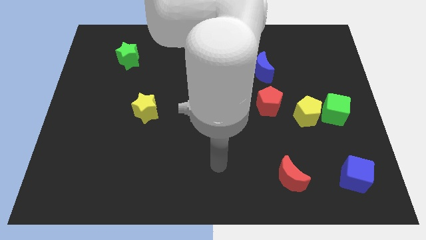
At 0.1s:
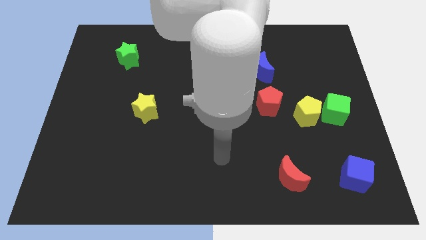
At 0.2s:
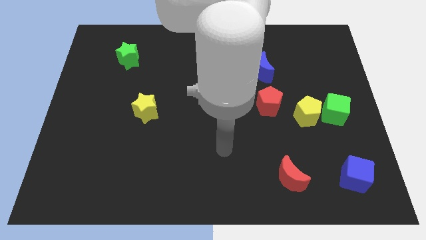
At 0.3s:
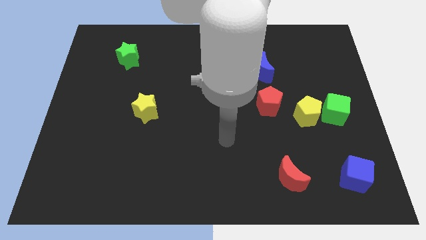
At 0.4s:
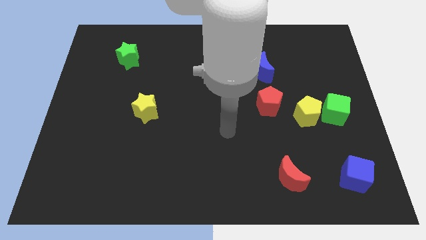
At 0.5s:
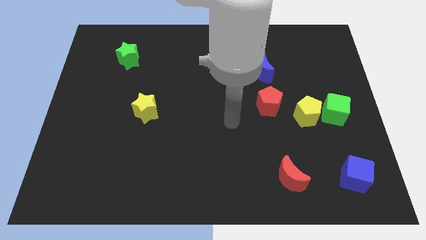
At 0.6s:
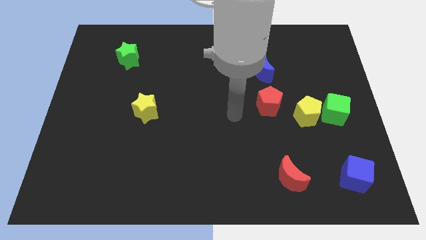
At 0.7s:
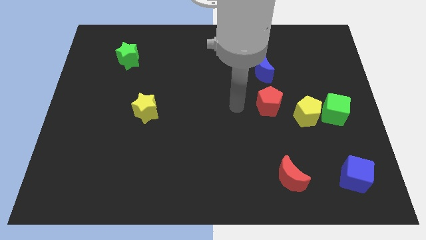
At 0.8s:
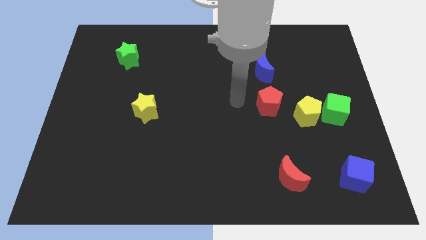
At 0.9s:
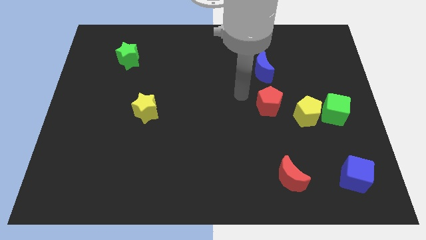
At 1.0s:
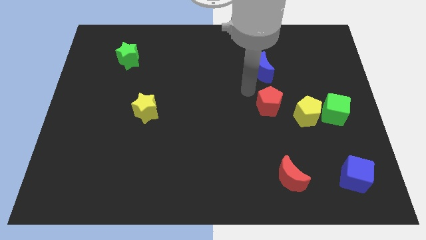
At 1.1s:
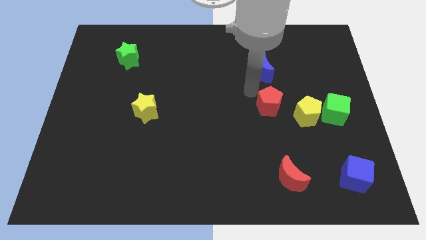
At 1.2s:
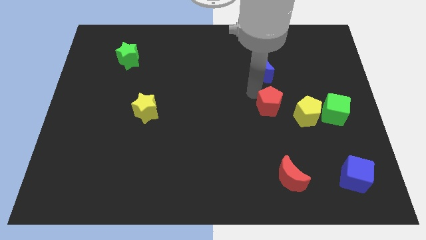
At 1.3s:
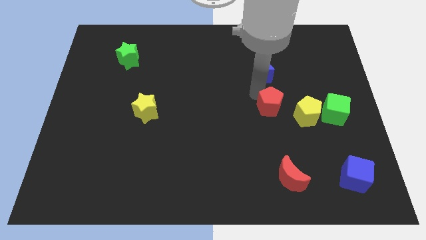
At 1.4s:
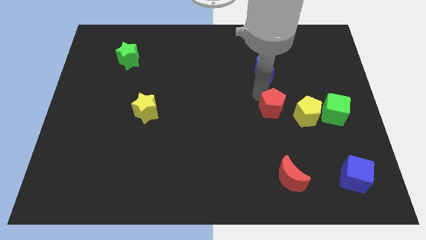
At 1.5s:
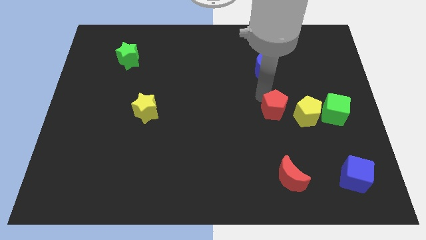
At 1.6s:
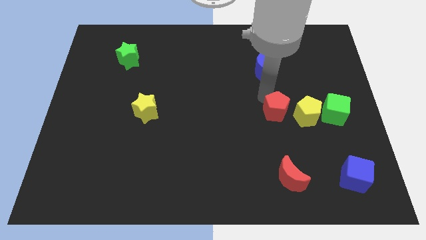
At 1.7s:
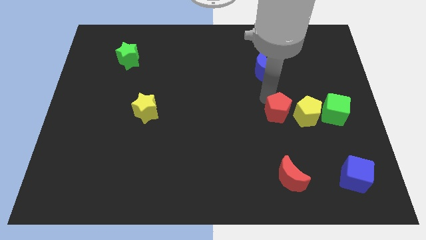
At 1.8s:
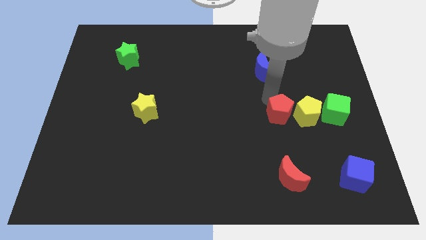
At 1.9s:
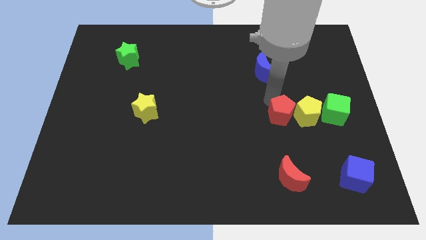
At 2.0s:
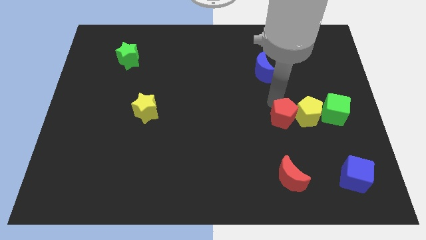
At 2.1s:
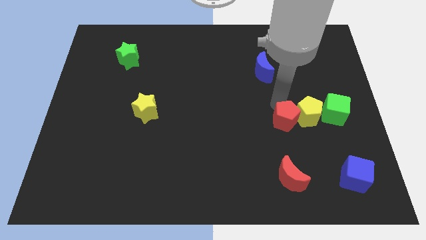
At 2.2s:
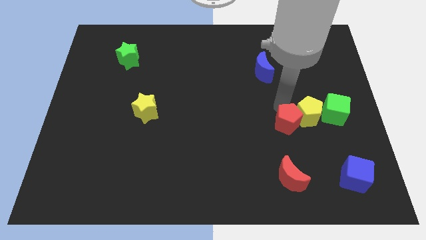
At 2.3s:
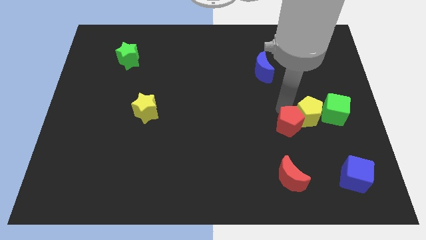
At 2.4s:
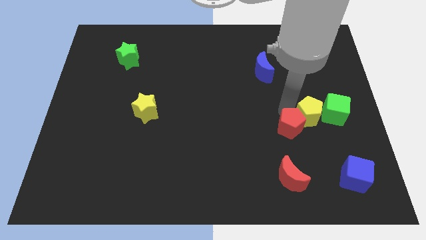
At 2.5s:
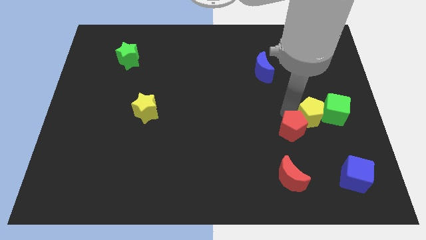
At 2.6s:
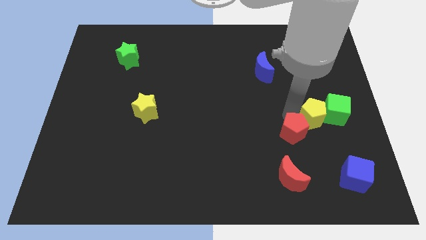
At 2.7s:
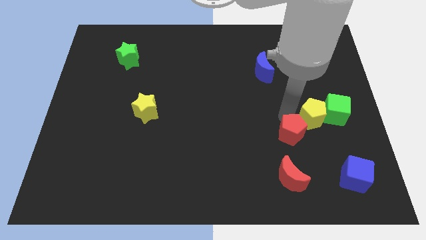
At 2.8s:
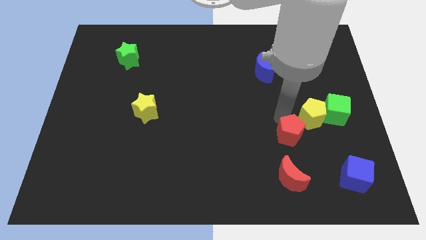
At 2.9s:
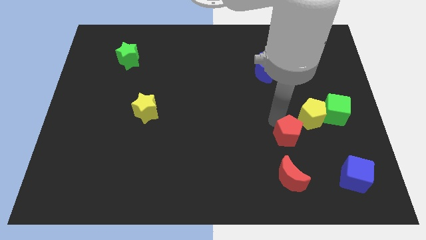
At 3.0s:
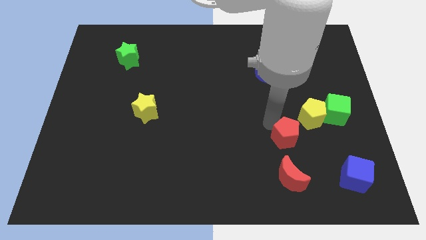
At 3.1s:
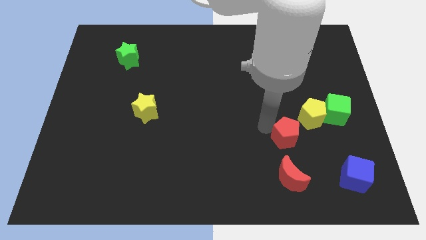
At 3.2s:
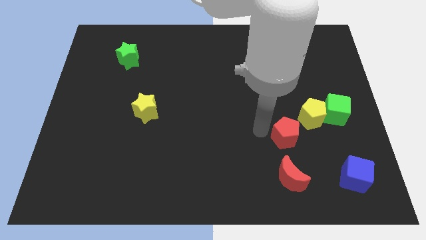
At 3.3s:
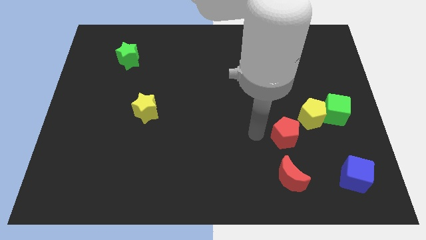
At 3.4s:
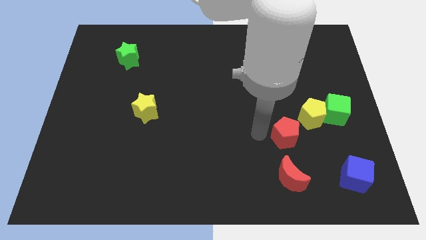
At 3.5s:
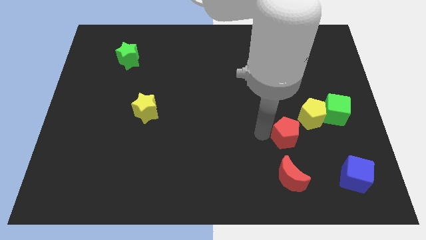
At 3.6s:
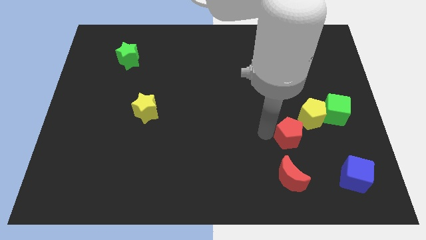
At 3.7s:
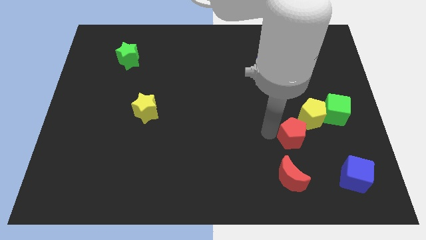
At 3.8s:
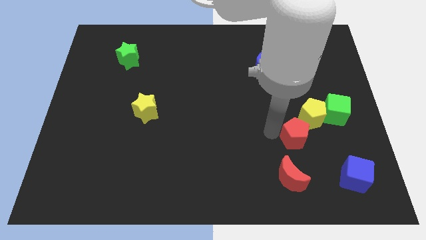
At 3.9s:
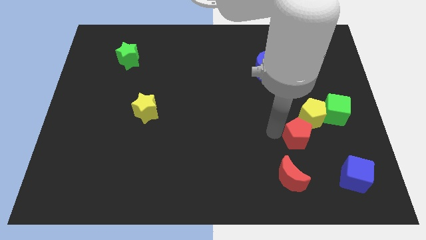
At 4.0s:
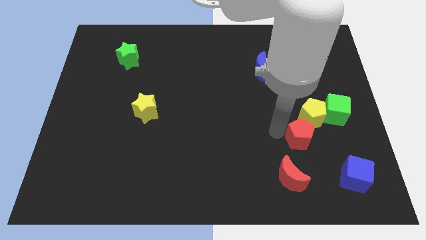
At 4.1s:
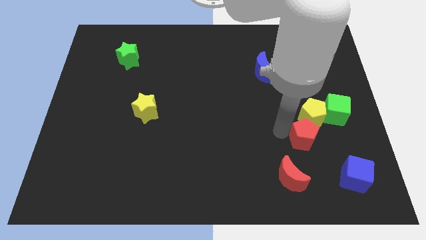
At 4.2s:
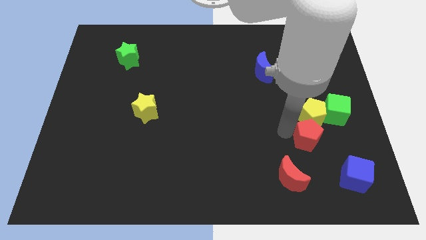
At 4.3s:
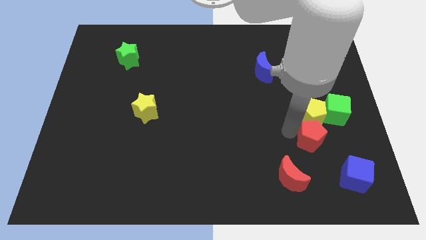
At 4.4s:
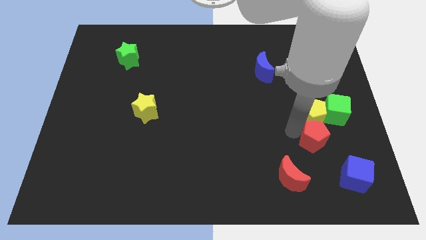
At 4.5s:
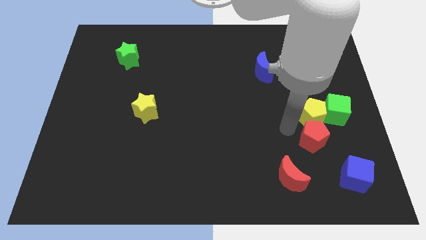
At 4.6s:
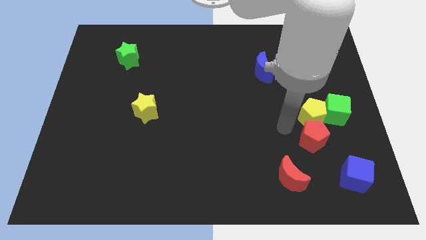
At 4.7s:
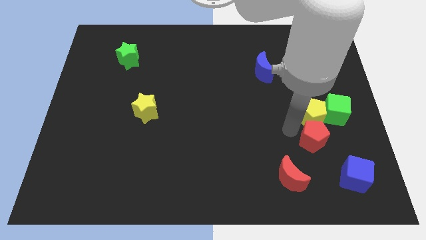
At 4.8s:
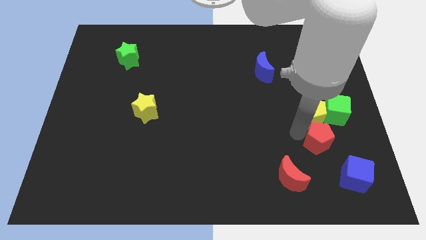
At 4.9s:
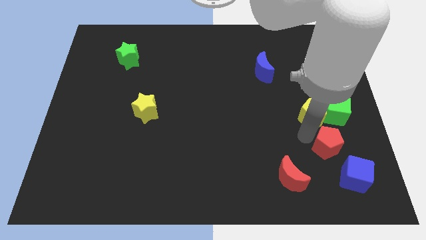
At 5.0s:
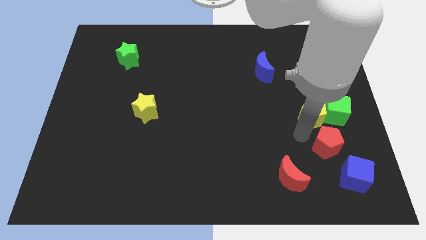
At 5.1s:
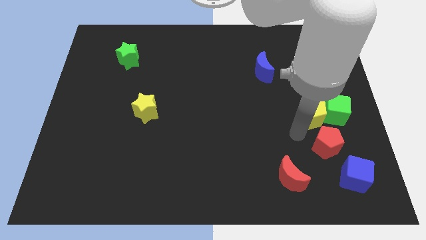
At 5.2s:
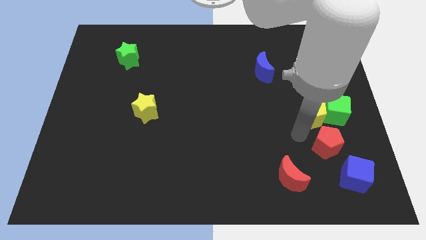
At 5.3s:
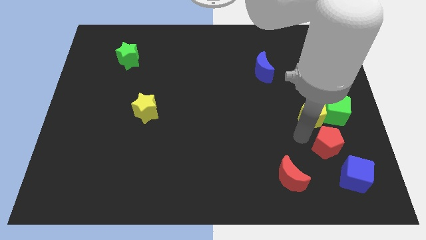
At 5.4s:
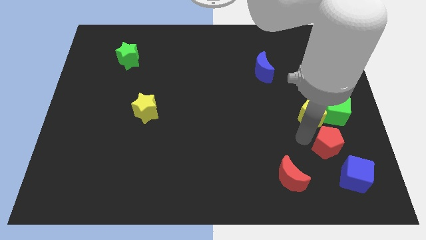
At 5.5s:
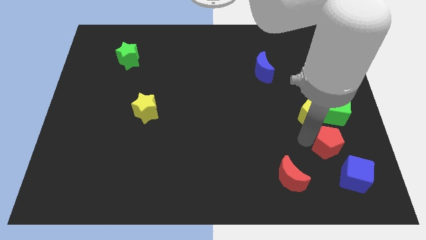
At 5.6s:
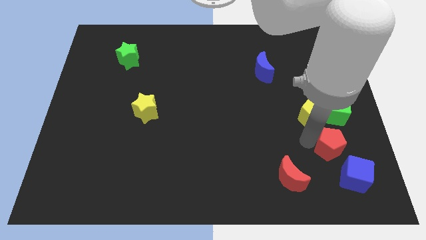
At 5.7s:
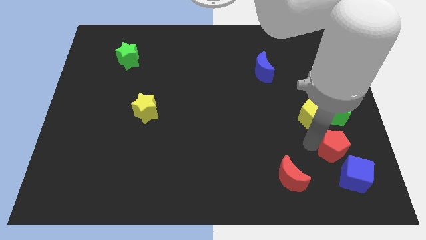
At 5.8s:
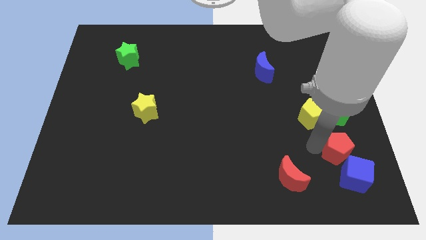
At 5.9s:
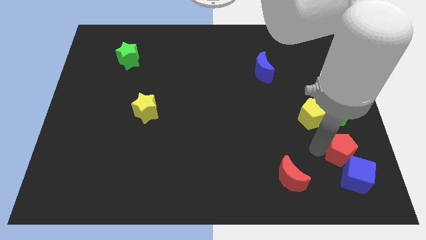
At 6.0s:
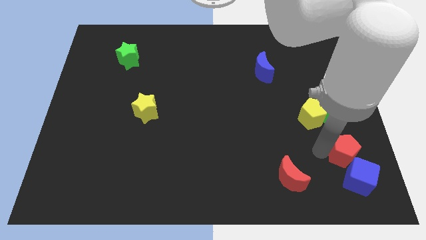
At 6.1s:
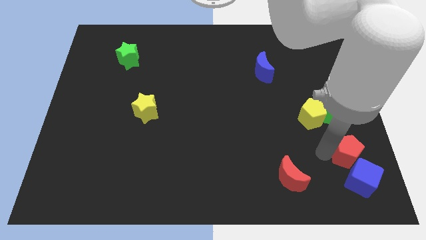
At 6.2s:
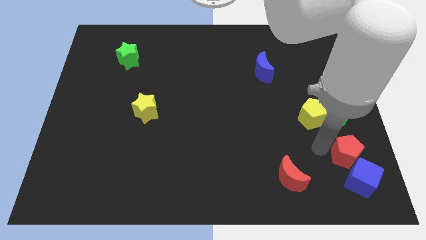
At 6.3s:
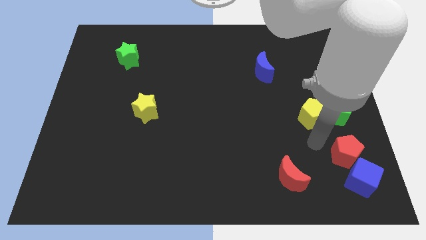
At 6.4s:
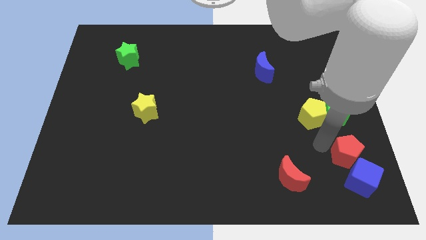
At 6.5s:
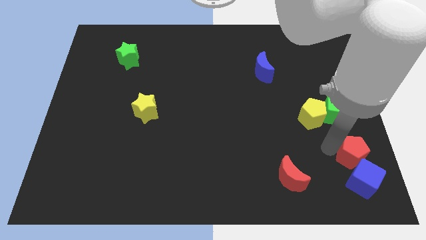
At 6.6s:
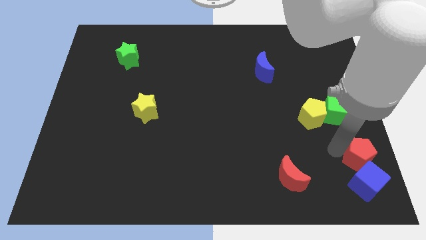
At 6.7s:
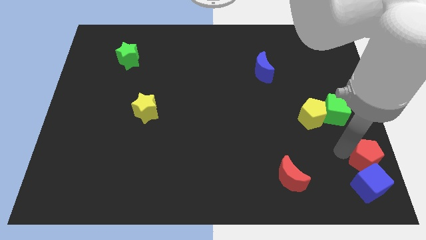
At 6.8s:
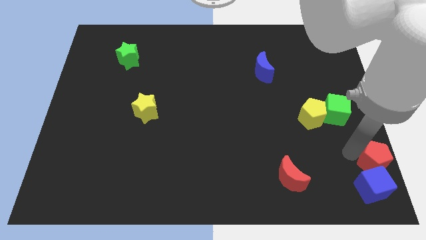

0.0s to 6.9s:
push the red pentagon to the bottom right

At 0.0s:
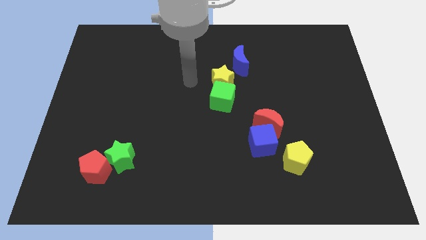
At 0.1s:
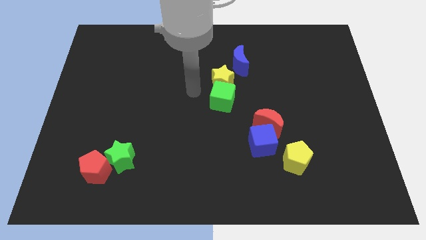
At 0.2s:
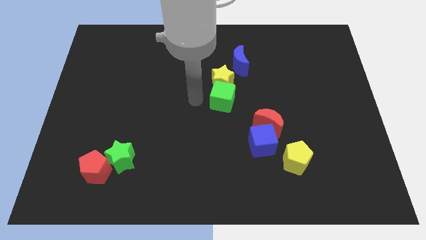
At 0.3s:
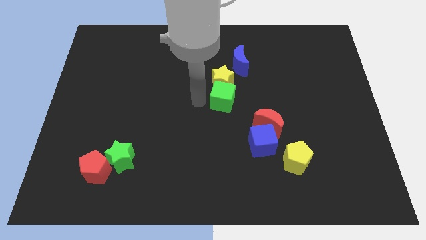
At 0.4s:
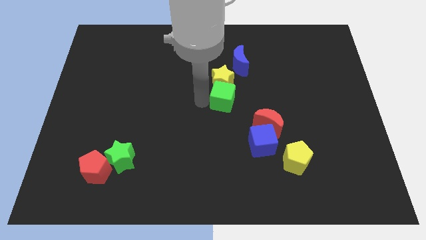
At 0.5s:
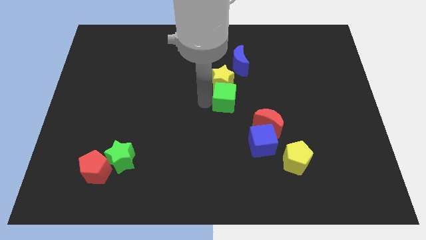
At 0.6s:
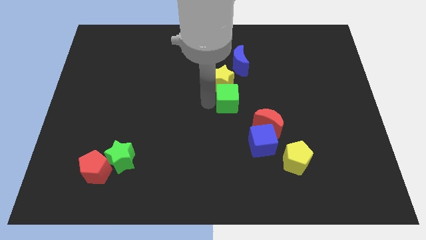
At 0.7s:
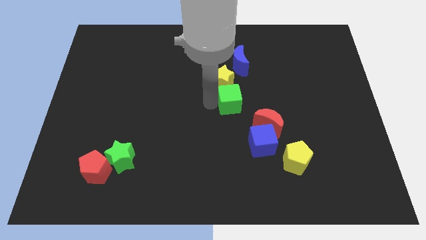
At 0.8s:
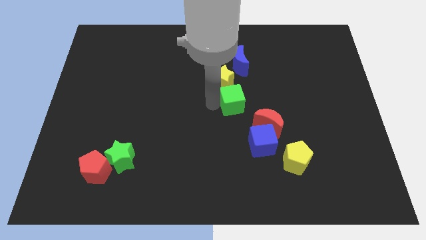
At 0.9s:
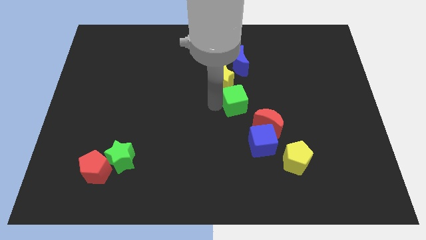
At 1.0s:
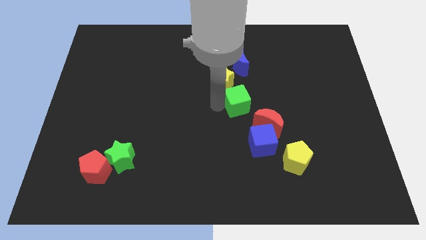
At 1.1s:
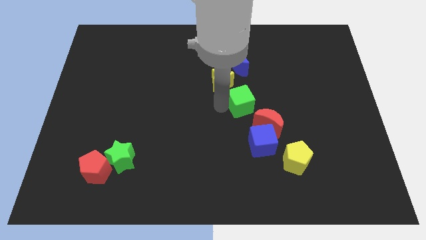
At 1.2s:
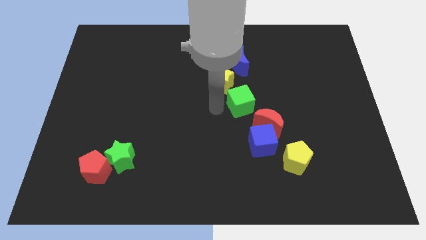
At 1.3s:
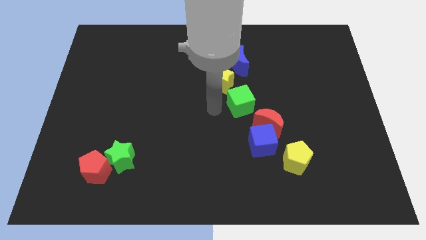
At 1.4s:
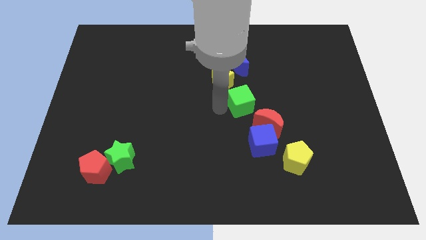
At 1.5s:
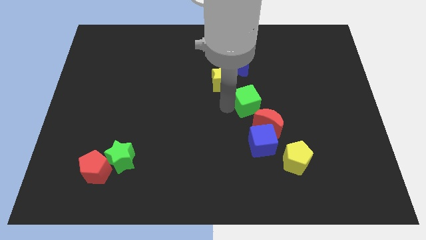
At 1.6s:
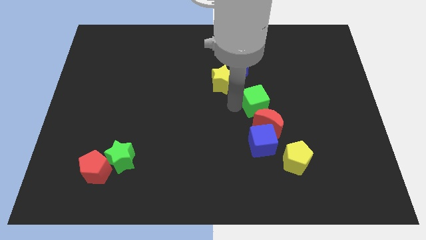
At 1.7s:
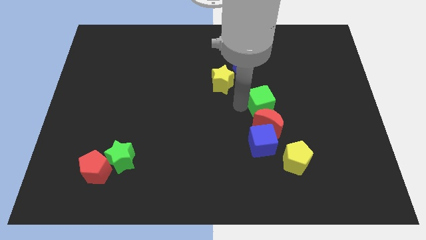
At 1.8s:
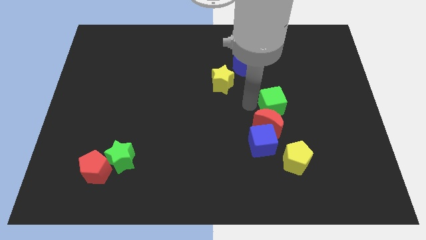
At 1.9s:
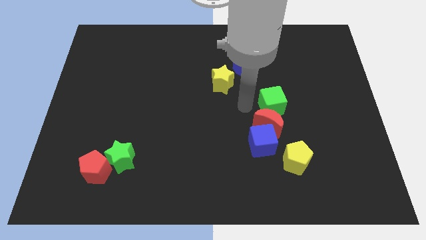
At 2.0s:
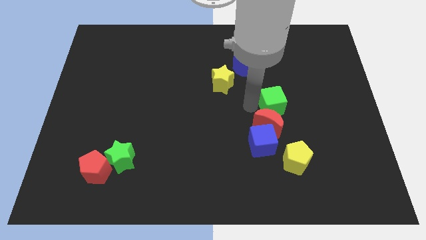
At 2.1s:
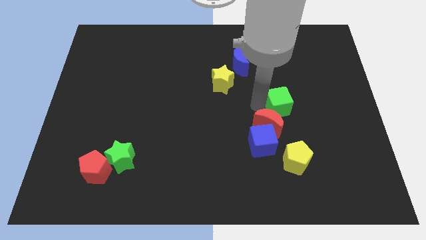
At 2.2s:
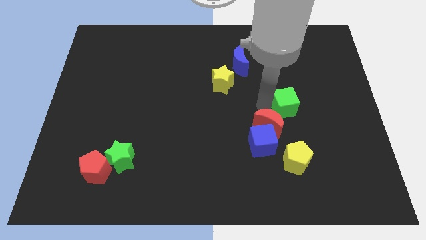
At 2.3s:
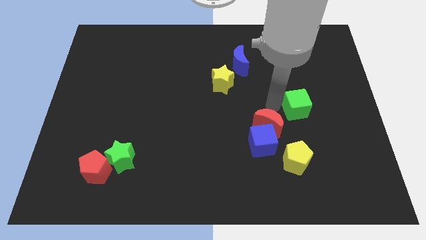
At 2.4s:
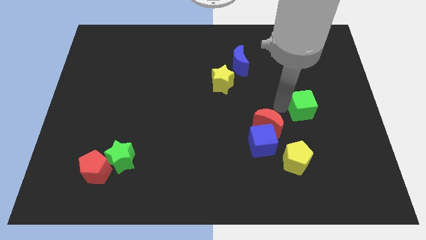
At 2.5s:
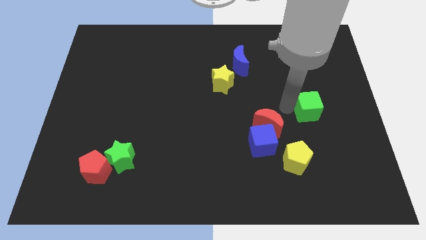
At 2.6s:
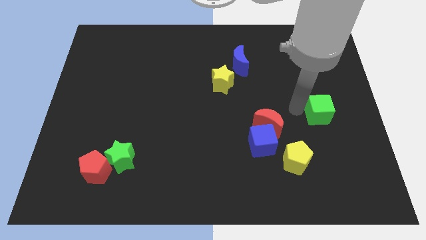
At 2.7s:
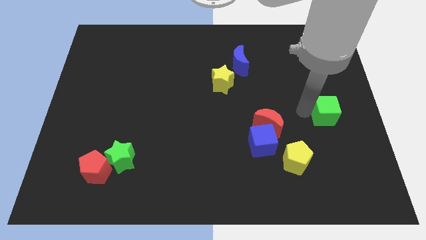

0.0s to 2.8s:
slide the green cube to the right side
